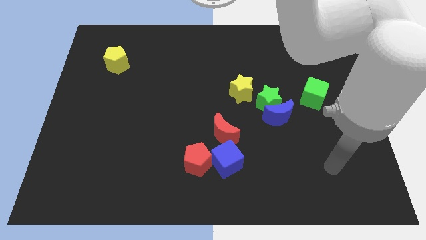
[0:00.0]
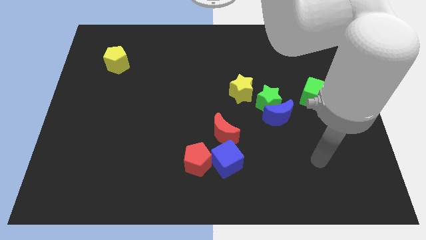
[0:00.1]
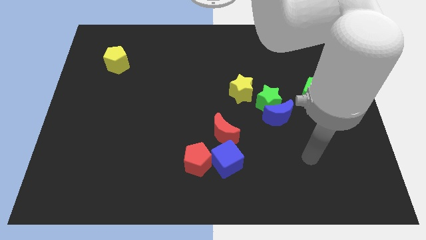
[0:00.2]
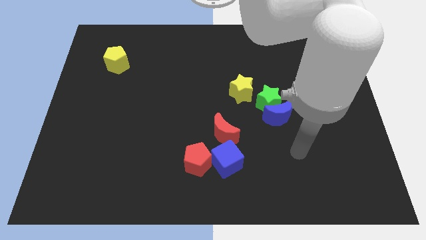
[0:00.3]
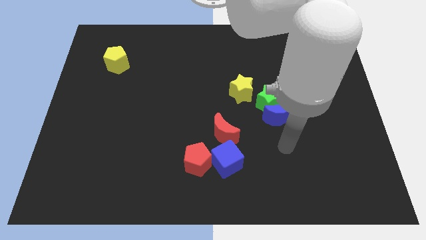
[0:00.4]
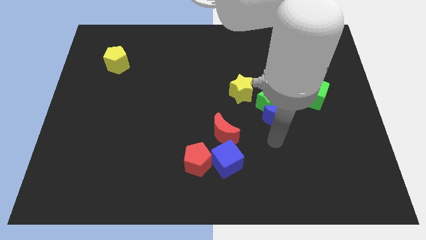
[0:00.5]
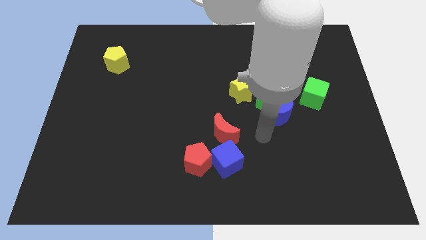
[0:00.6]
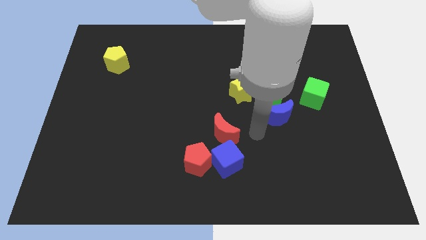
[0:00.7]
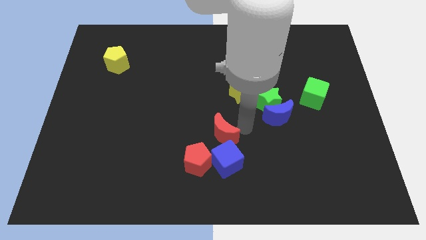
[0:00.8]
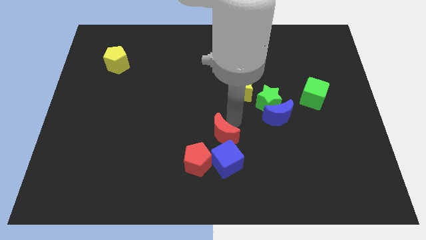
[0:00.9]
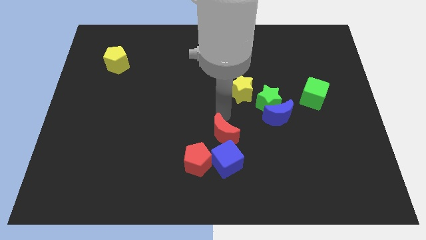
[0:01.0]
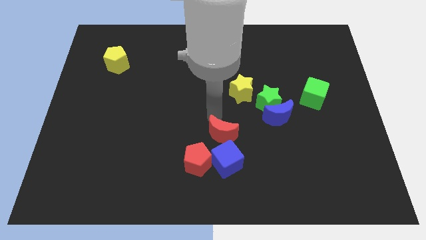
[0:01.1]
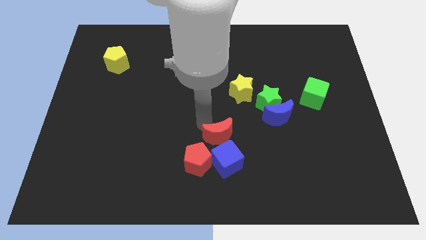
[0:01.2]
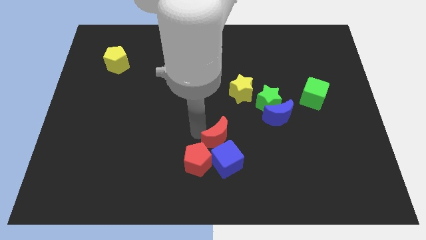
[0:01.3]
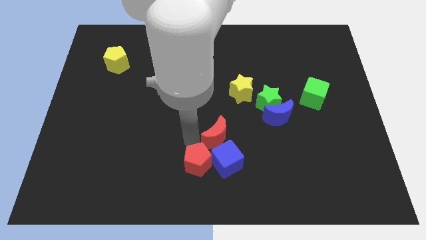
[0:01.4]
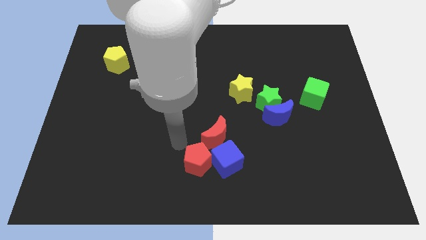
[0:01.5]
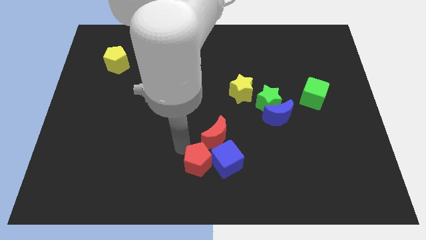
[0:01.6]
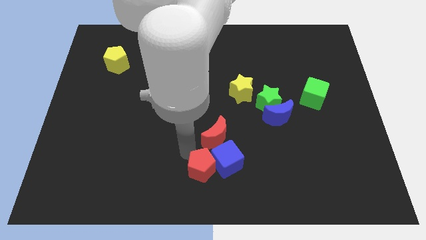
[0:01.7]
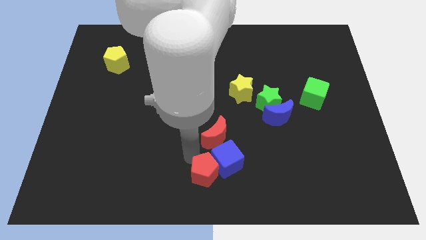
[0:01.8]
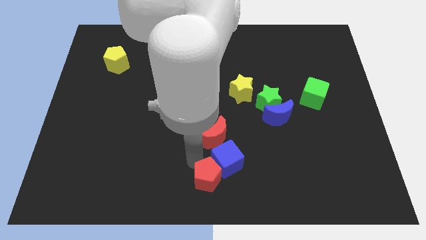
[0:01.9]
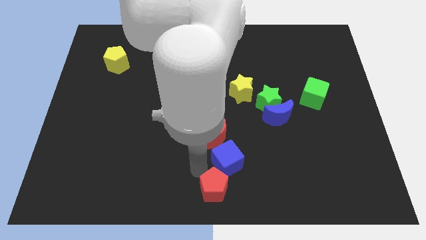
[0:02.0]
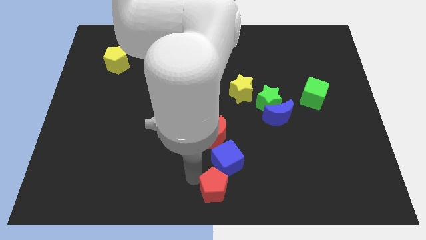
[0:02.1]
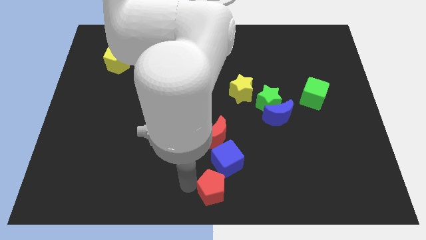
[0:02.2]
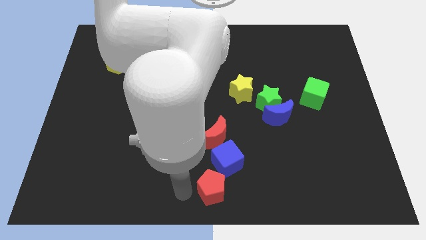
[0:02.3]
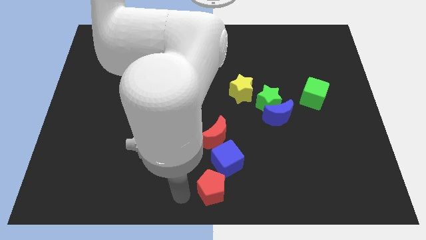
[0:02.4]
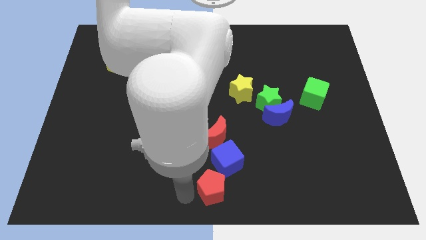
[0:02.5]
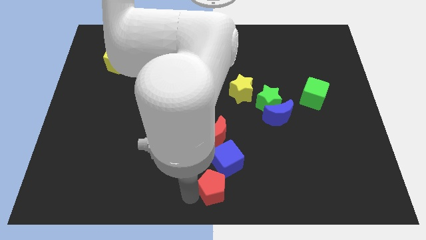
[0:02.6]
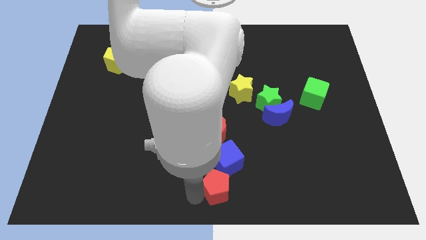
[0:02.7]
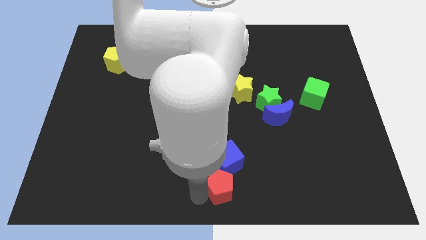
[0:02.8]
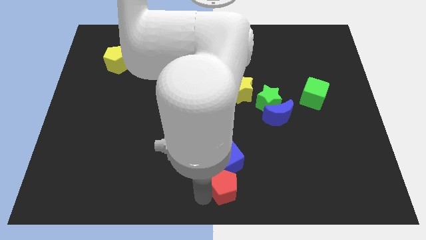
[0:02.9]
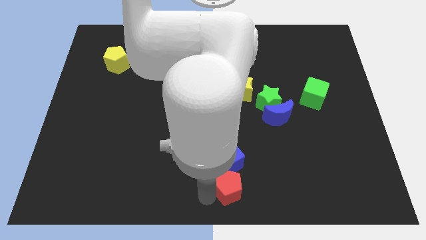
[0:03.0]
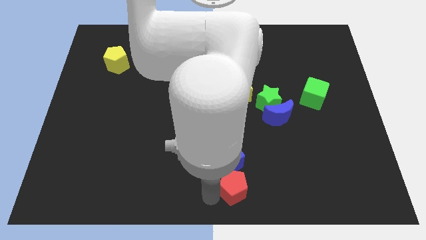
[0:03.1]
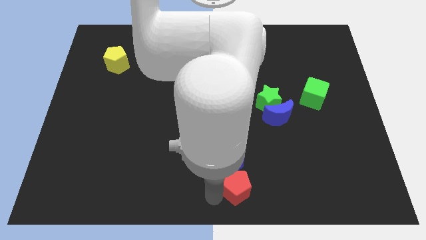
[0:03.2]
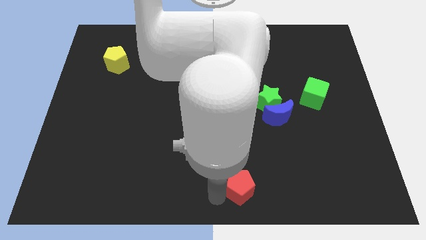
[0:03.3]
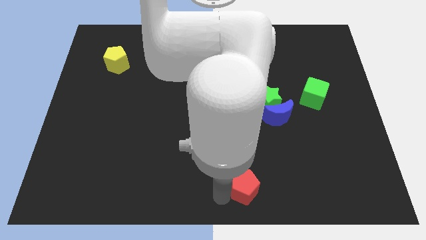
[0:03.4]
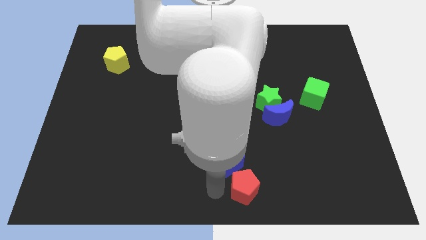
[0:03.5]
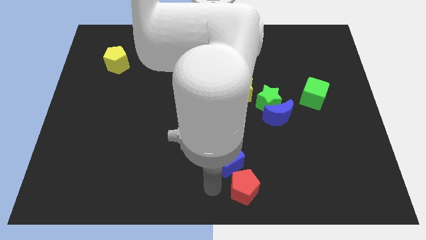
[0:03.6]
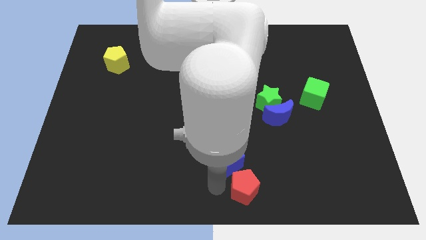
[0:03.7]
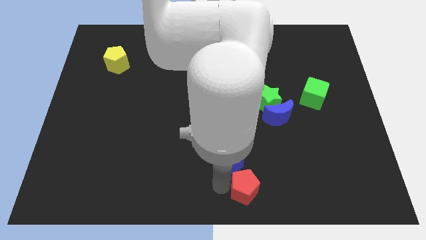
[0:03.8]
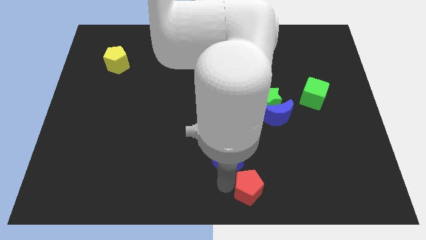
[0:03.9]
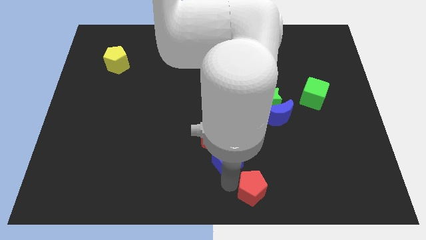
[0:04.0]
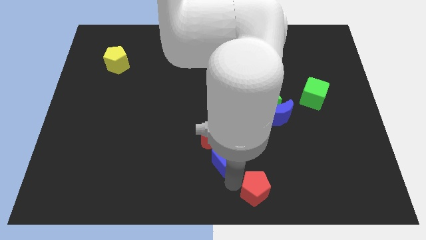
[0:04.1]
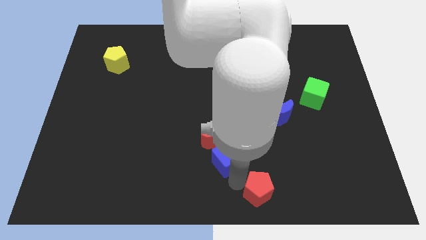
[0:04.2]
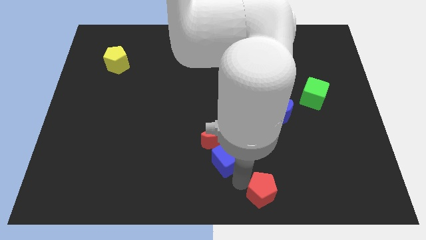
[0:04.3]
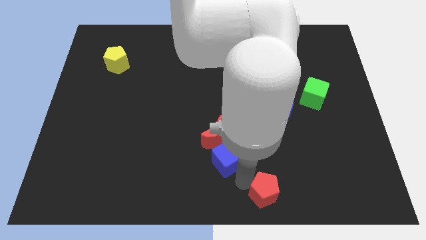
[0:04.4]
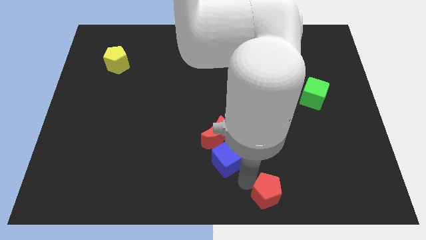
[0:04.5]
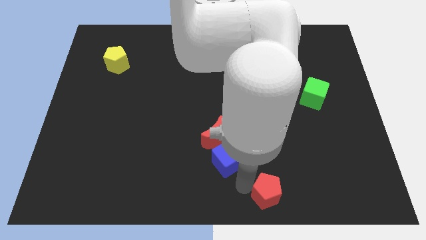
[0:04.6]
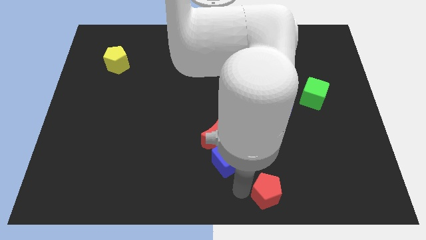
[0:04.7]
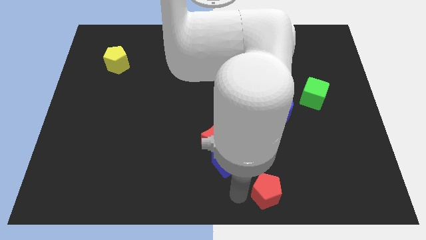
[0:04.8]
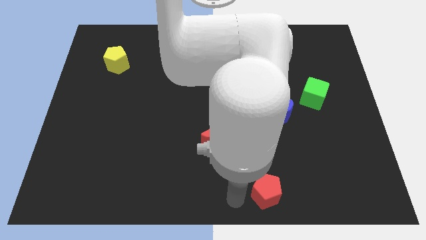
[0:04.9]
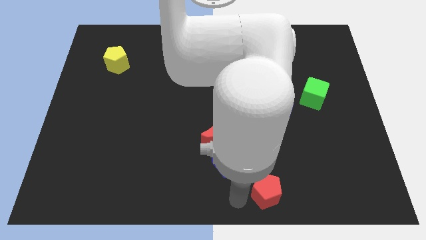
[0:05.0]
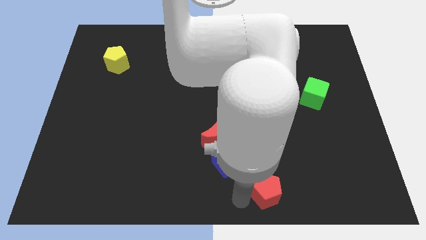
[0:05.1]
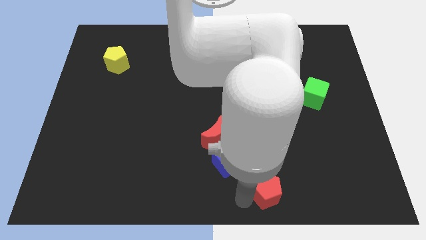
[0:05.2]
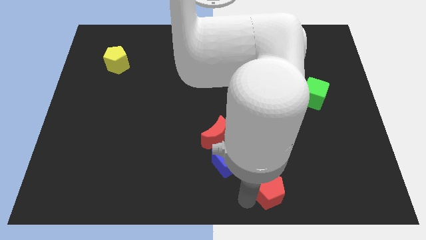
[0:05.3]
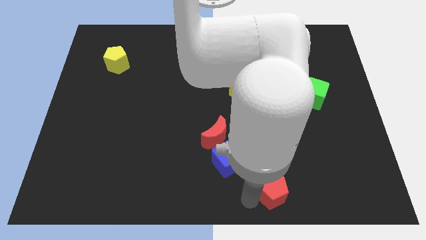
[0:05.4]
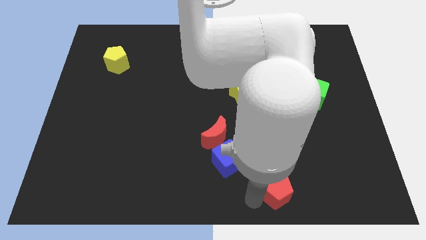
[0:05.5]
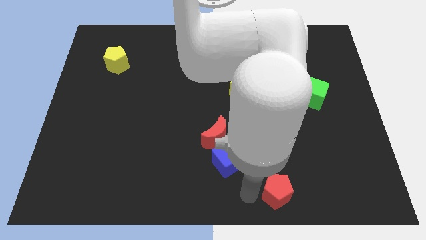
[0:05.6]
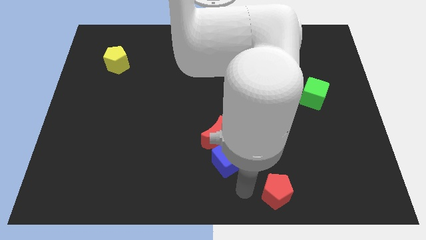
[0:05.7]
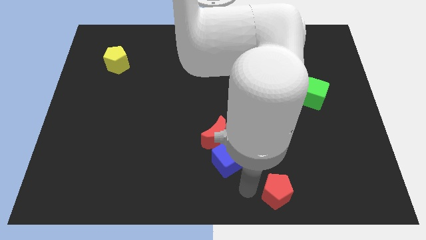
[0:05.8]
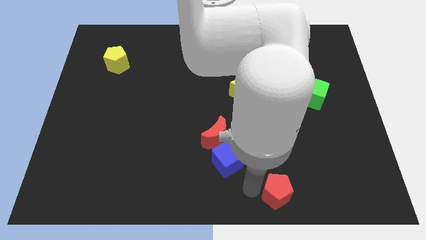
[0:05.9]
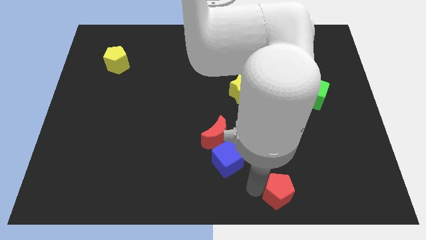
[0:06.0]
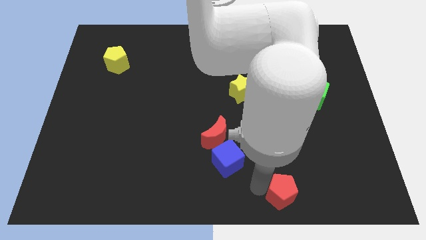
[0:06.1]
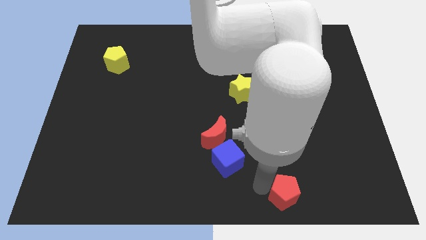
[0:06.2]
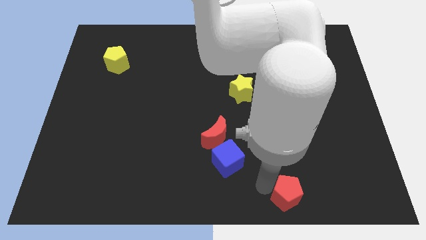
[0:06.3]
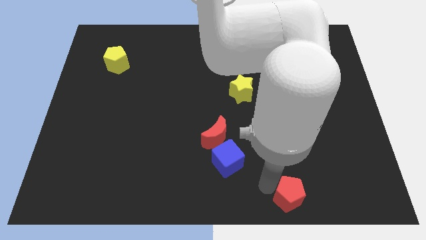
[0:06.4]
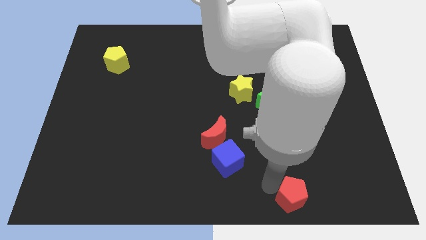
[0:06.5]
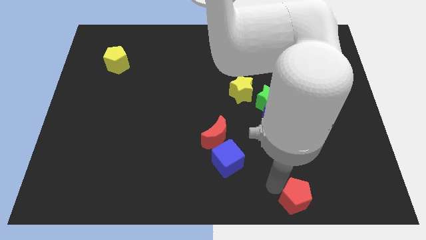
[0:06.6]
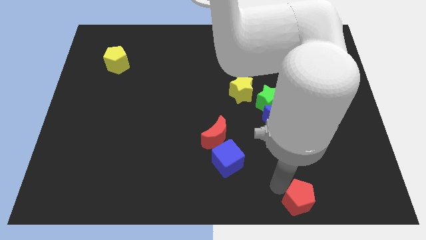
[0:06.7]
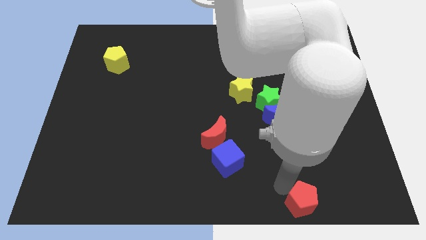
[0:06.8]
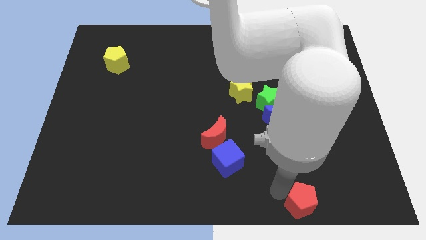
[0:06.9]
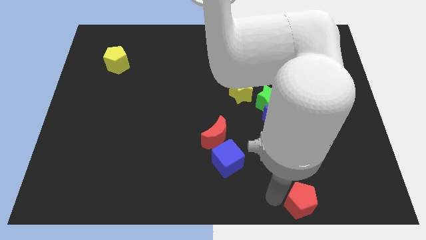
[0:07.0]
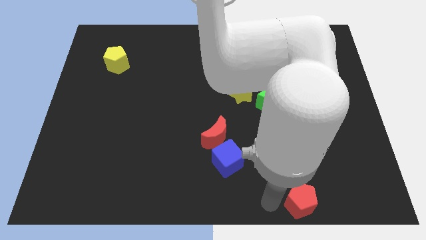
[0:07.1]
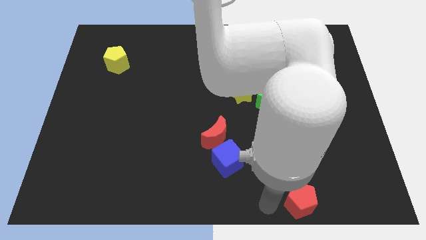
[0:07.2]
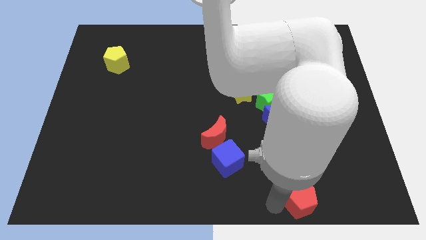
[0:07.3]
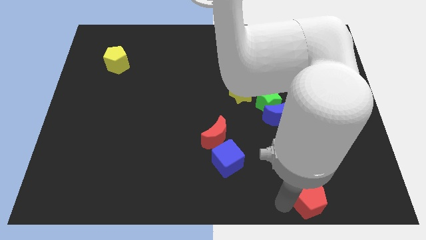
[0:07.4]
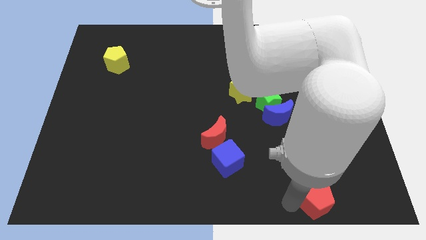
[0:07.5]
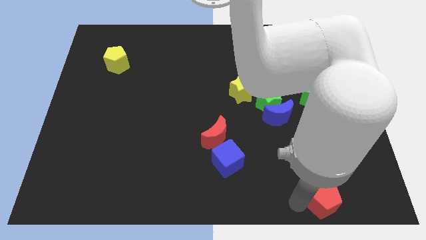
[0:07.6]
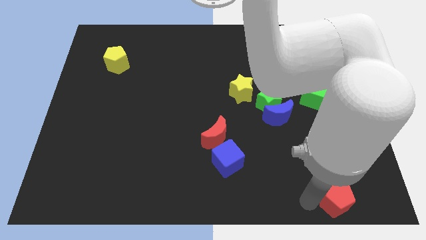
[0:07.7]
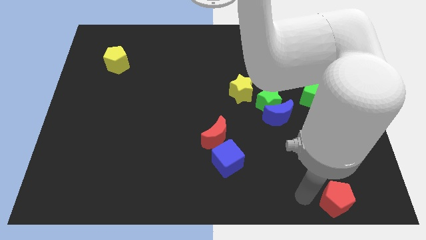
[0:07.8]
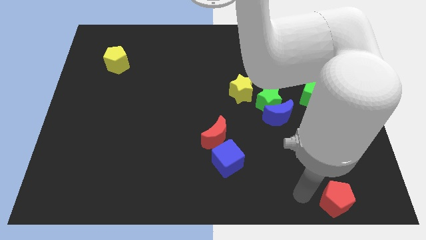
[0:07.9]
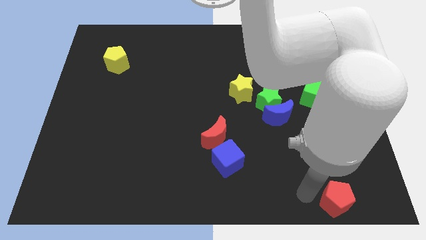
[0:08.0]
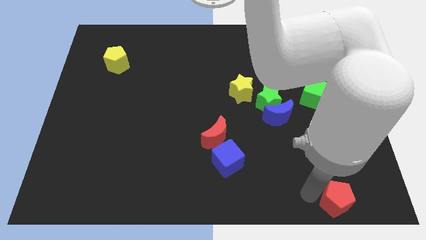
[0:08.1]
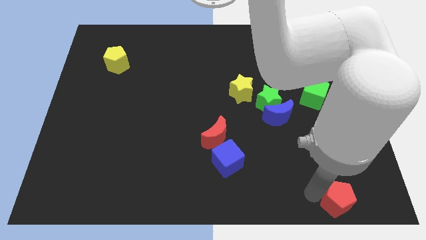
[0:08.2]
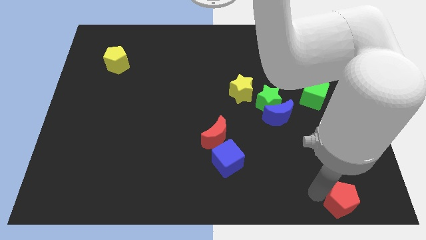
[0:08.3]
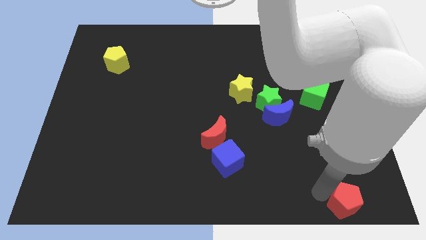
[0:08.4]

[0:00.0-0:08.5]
move the red pentagon to the bottom right
